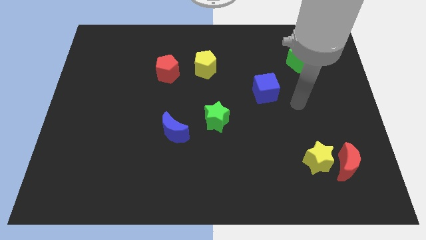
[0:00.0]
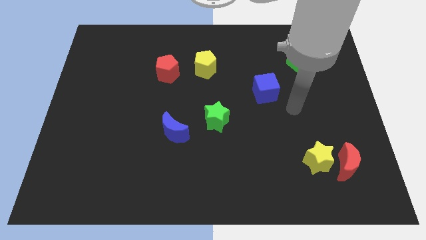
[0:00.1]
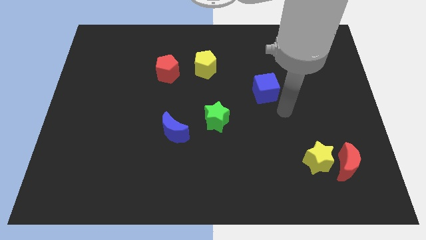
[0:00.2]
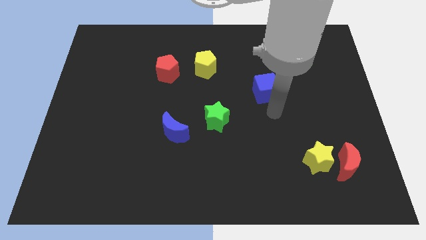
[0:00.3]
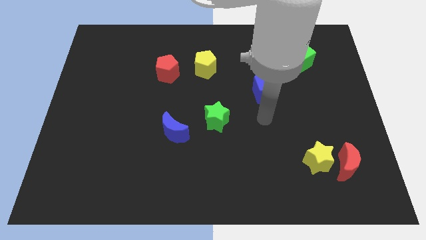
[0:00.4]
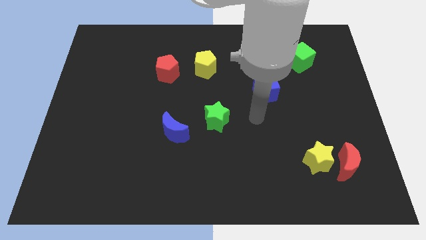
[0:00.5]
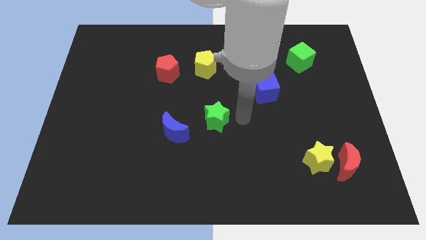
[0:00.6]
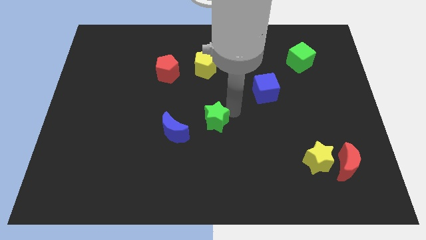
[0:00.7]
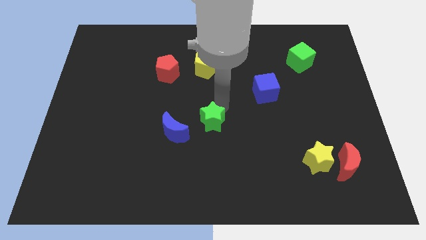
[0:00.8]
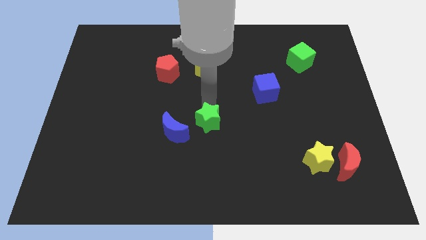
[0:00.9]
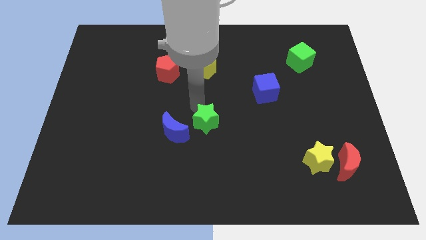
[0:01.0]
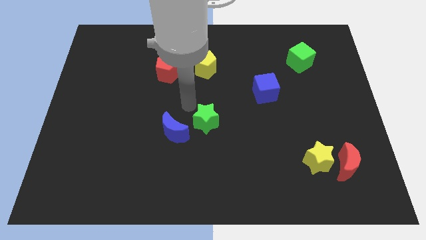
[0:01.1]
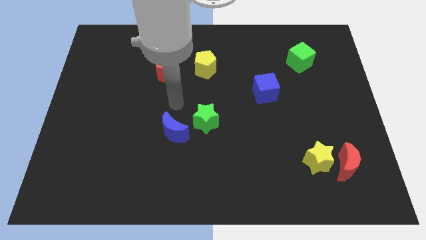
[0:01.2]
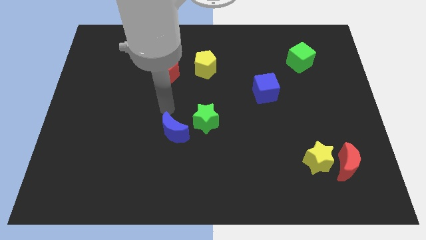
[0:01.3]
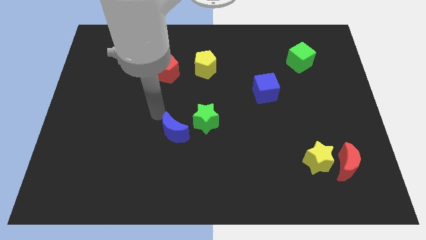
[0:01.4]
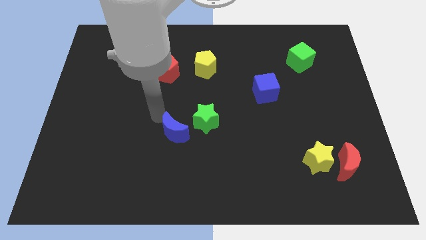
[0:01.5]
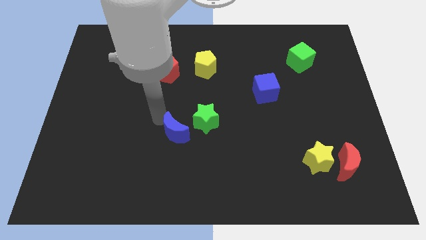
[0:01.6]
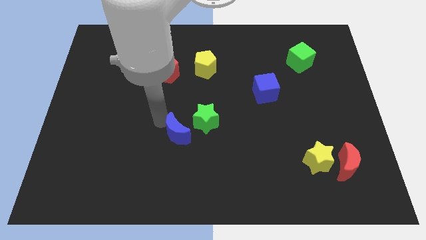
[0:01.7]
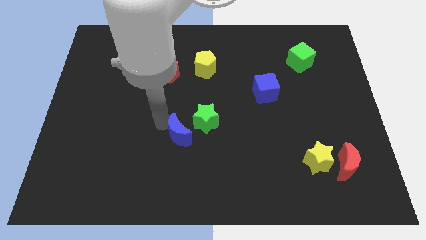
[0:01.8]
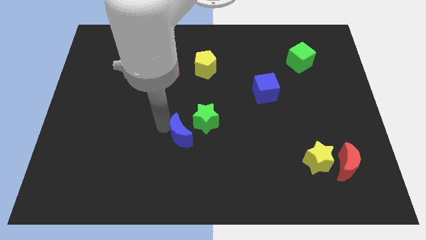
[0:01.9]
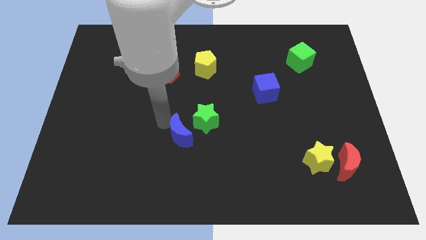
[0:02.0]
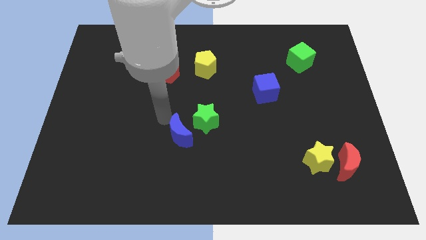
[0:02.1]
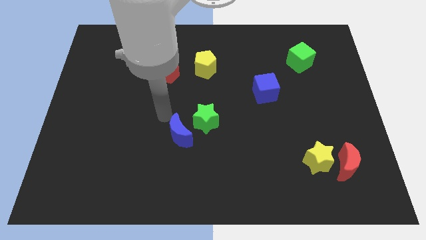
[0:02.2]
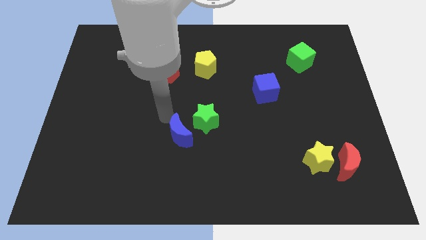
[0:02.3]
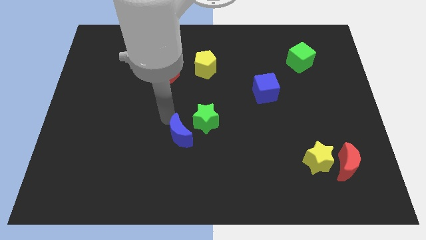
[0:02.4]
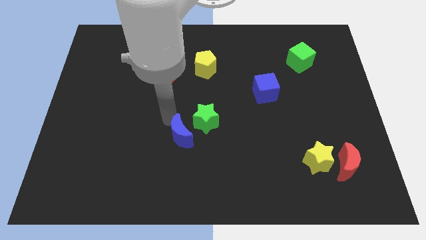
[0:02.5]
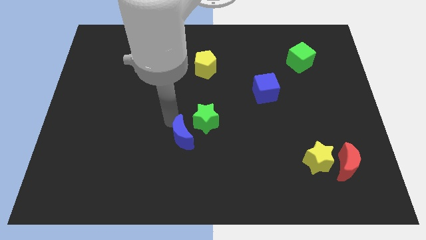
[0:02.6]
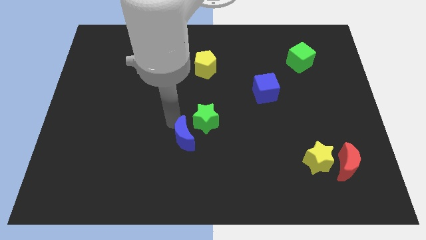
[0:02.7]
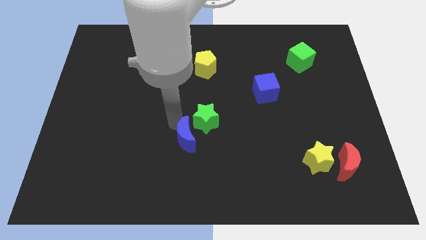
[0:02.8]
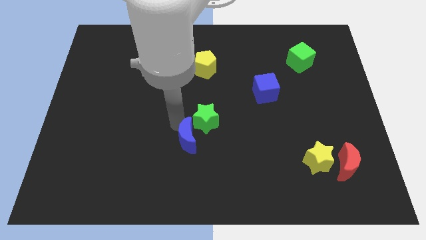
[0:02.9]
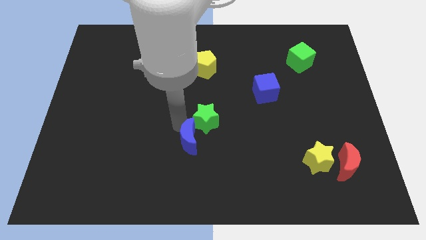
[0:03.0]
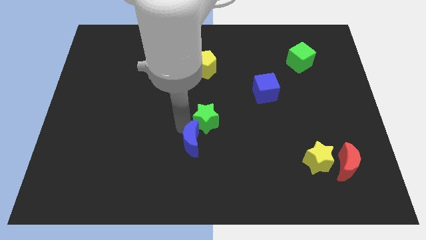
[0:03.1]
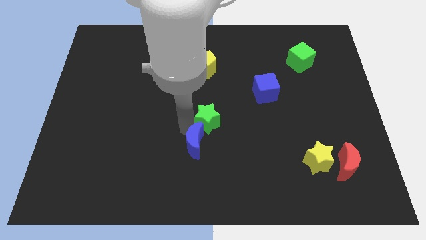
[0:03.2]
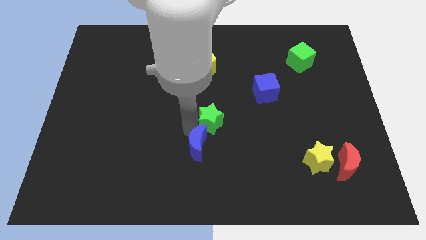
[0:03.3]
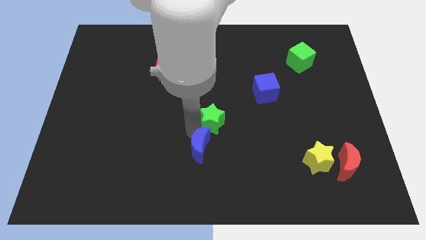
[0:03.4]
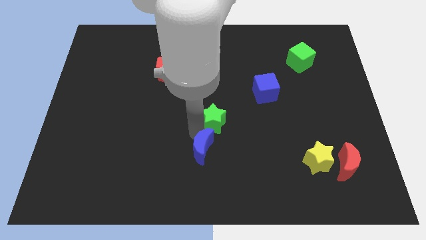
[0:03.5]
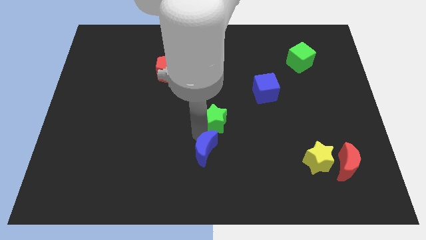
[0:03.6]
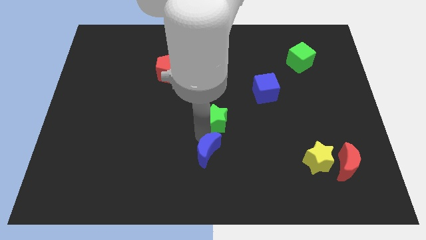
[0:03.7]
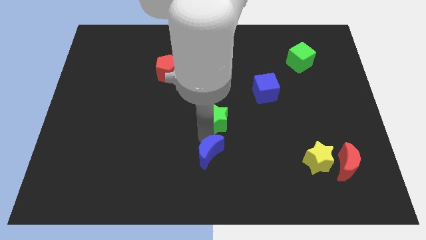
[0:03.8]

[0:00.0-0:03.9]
put the blue moon to the bottom side

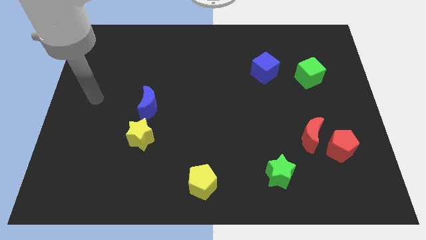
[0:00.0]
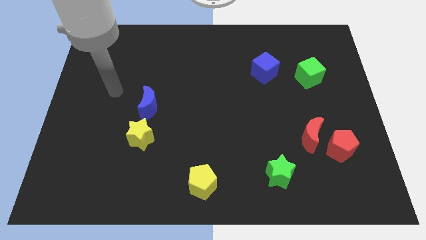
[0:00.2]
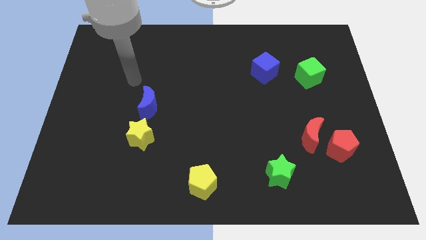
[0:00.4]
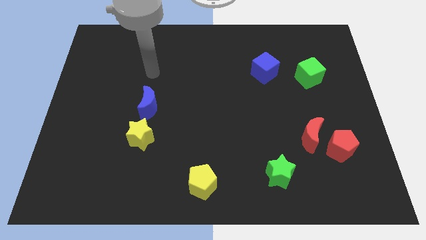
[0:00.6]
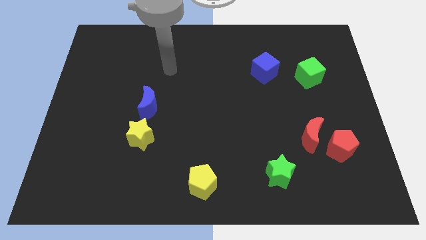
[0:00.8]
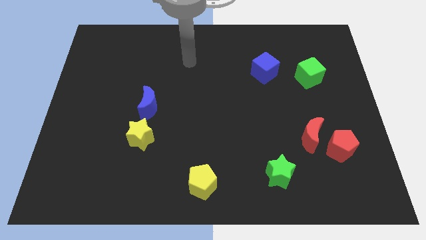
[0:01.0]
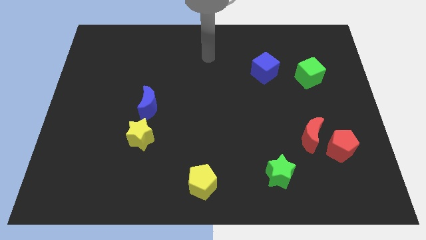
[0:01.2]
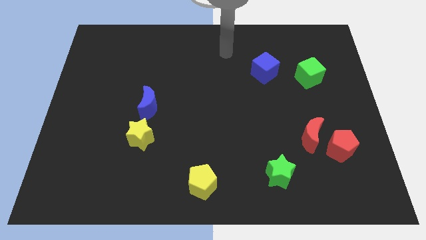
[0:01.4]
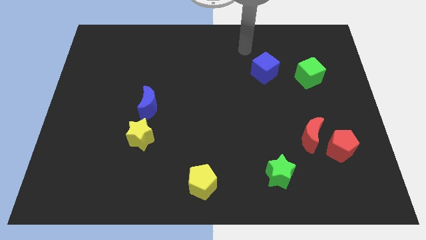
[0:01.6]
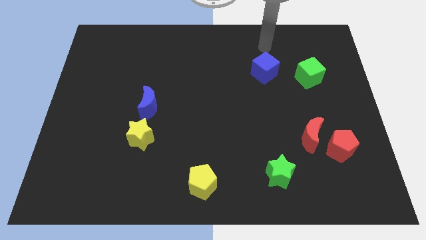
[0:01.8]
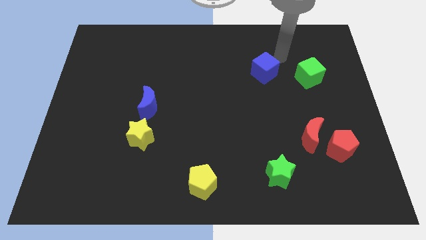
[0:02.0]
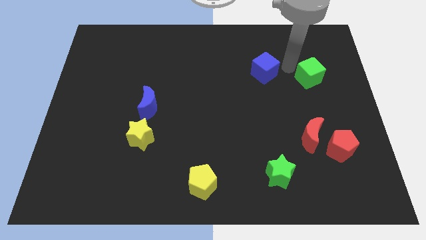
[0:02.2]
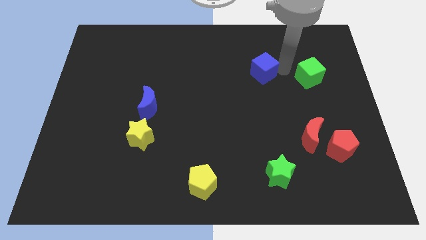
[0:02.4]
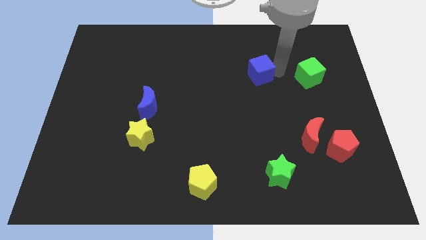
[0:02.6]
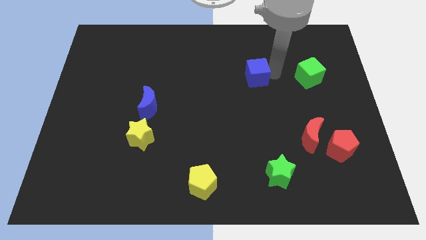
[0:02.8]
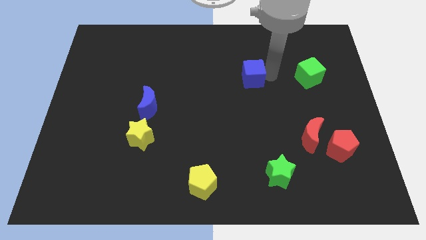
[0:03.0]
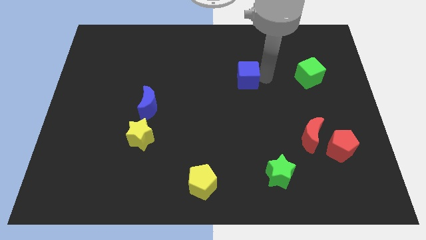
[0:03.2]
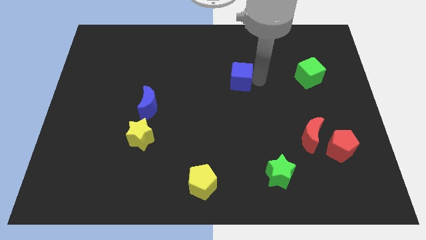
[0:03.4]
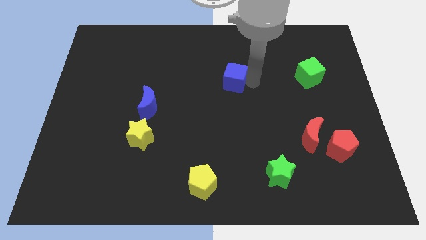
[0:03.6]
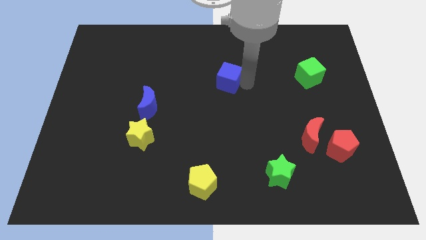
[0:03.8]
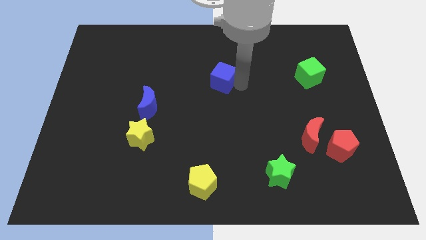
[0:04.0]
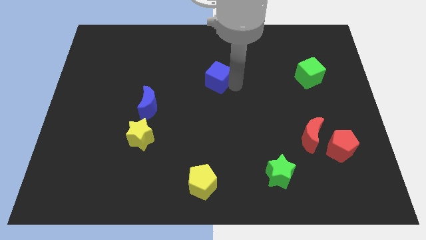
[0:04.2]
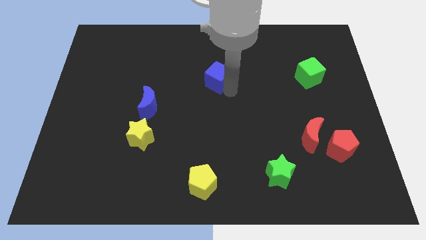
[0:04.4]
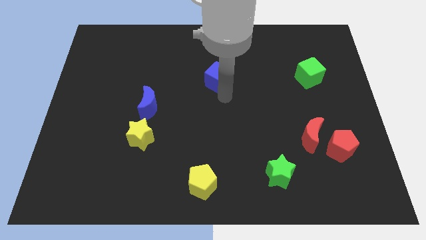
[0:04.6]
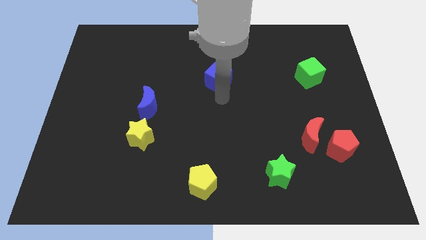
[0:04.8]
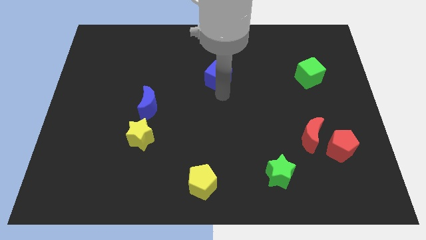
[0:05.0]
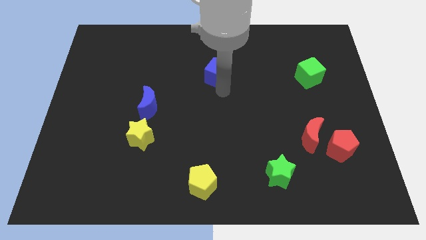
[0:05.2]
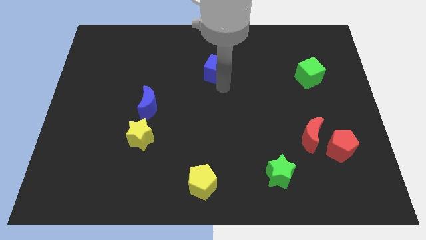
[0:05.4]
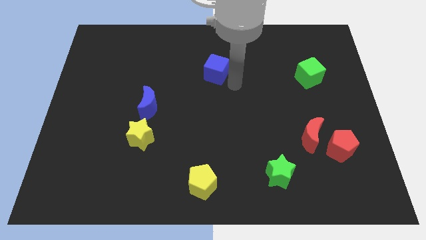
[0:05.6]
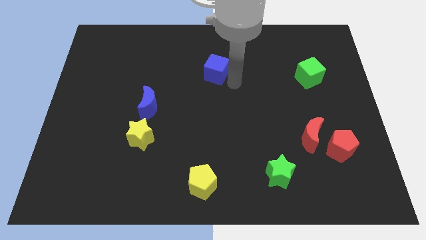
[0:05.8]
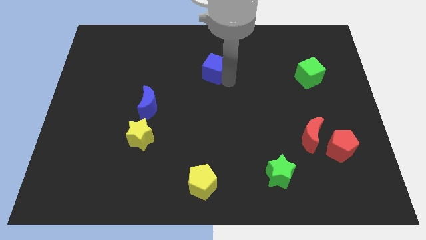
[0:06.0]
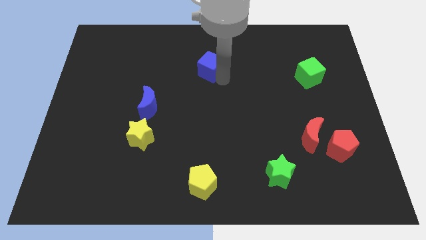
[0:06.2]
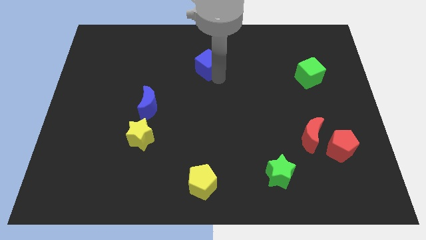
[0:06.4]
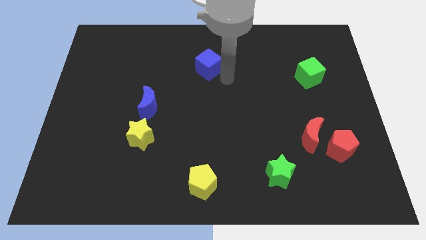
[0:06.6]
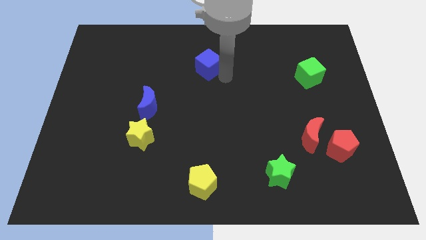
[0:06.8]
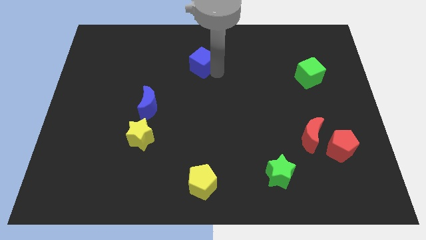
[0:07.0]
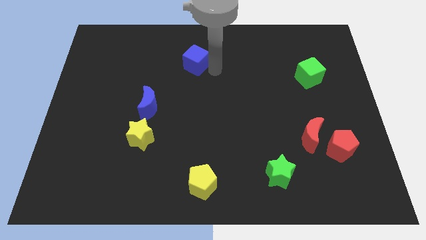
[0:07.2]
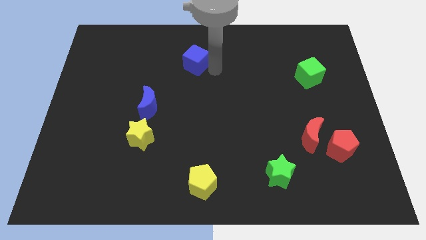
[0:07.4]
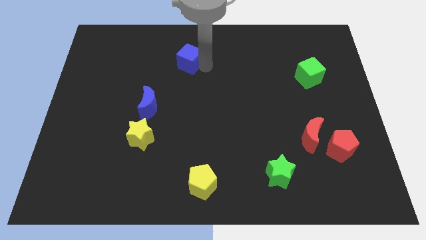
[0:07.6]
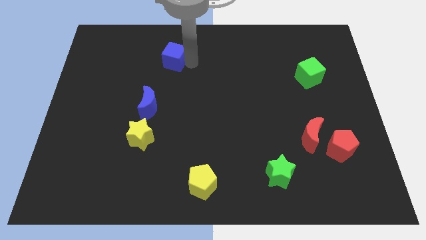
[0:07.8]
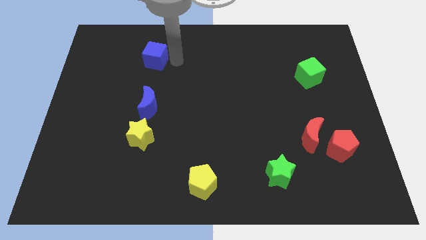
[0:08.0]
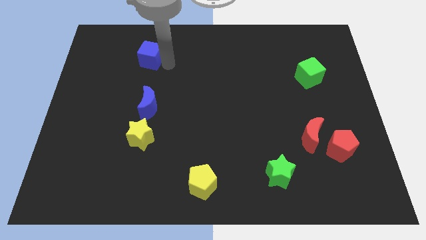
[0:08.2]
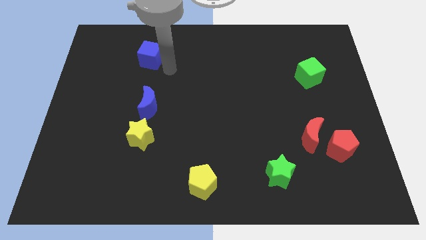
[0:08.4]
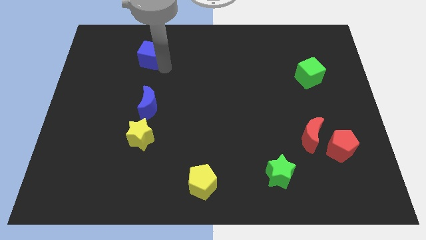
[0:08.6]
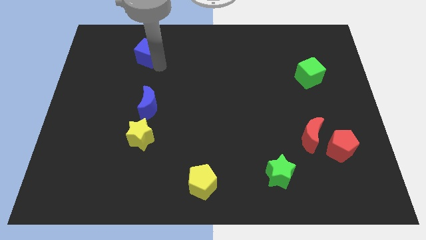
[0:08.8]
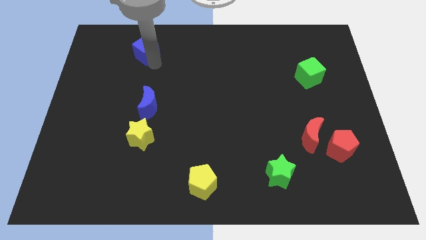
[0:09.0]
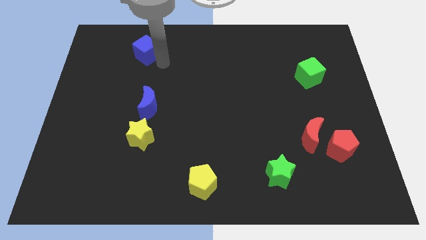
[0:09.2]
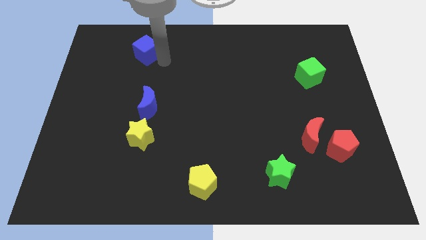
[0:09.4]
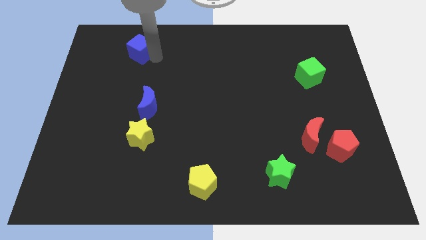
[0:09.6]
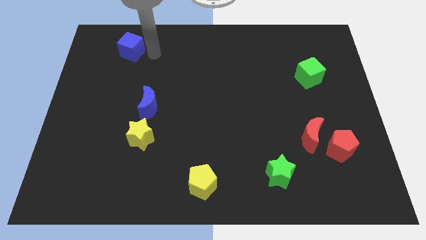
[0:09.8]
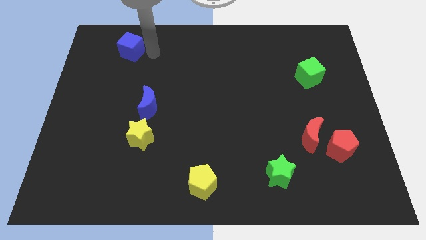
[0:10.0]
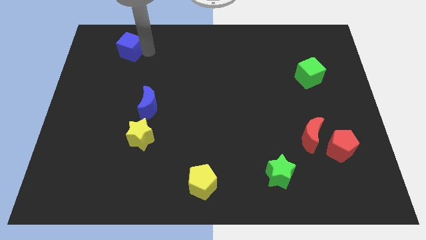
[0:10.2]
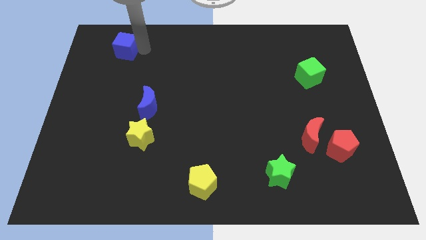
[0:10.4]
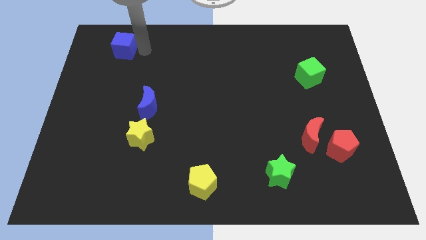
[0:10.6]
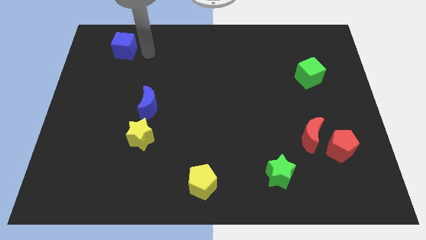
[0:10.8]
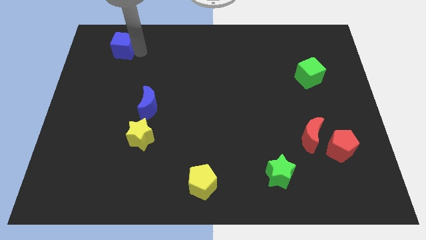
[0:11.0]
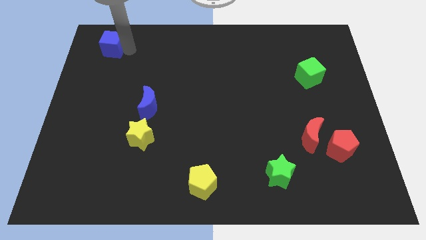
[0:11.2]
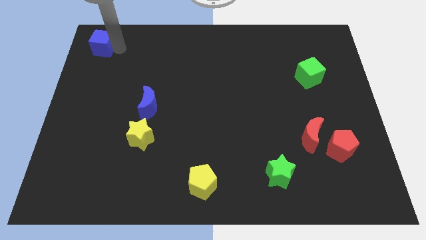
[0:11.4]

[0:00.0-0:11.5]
push the blue cube to the top left corner
